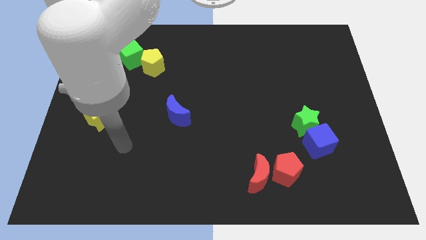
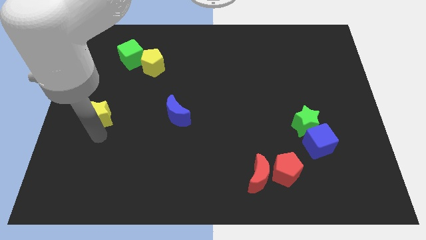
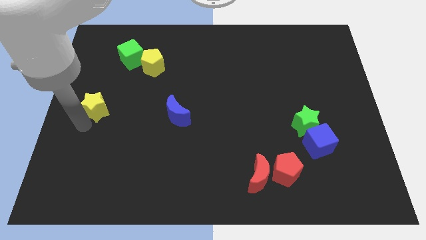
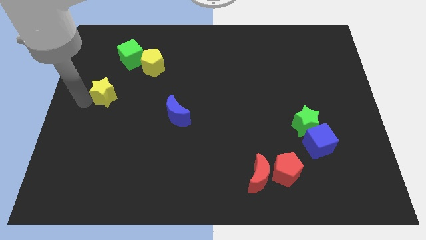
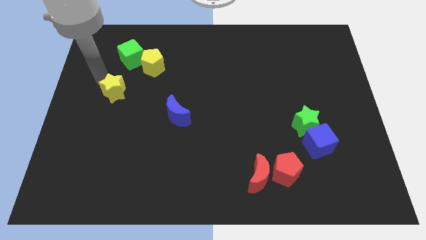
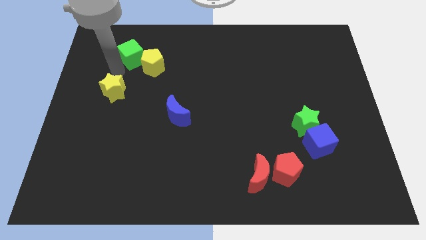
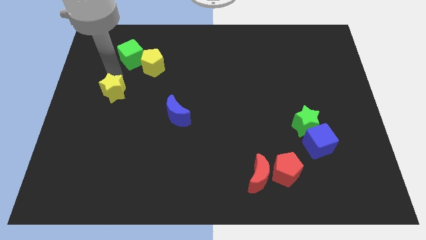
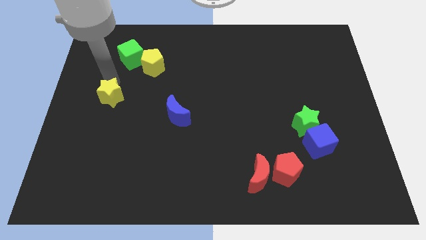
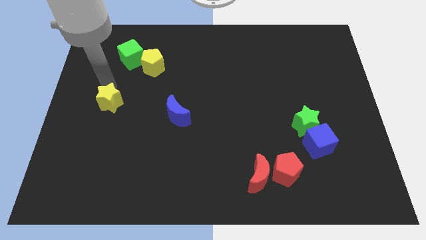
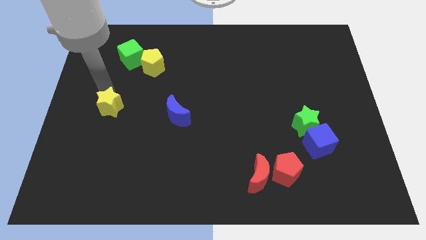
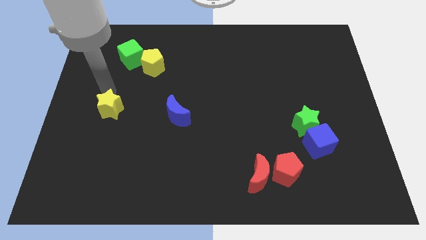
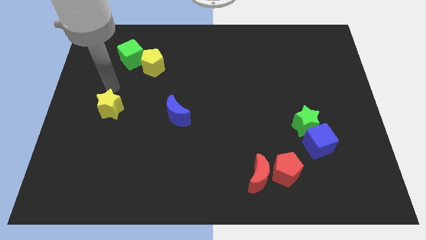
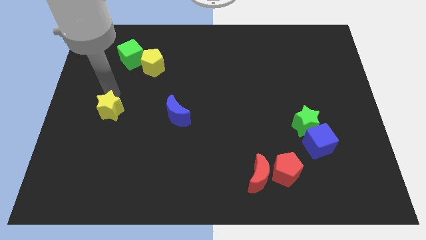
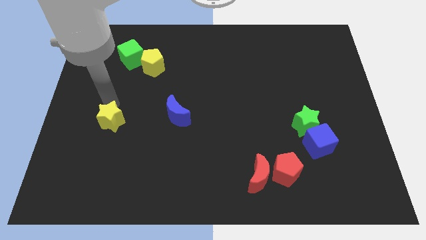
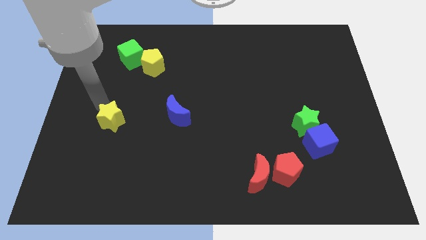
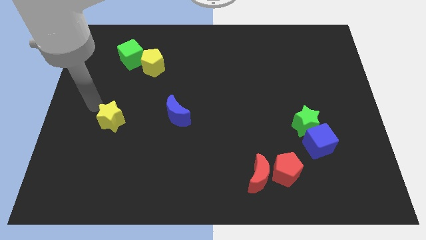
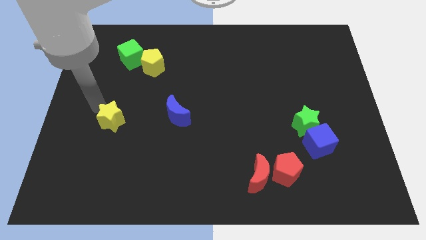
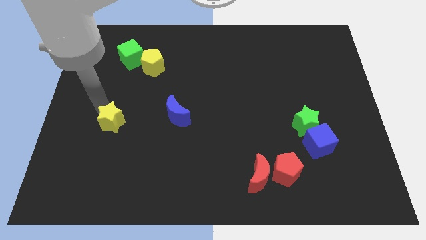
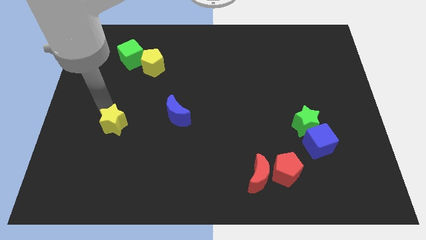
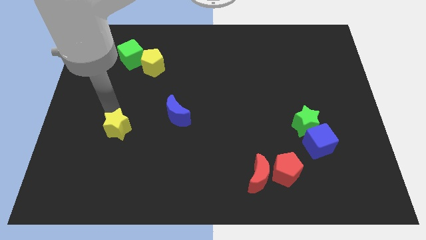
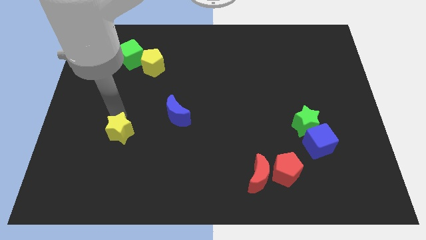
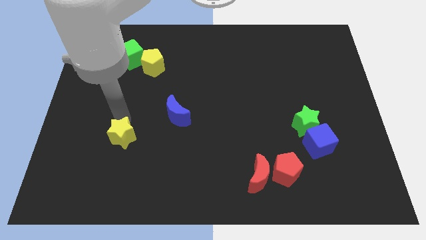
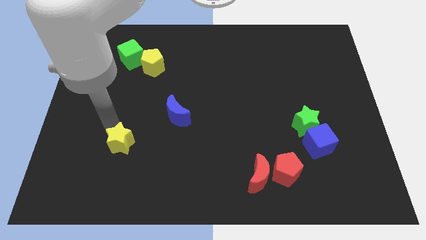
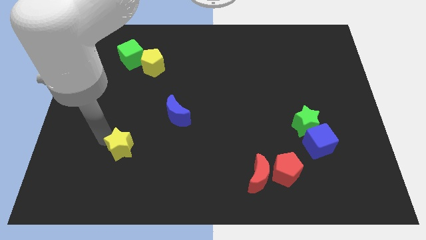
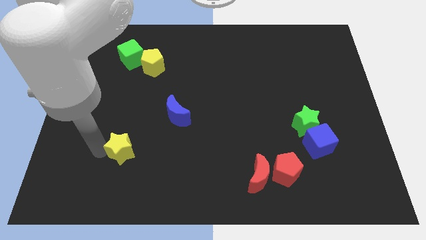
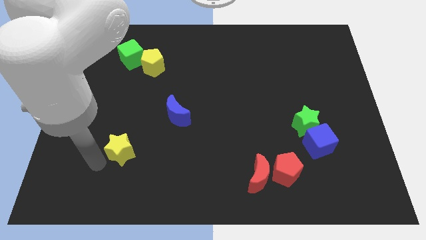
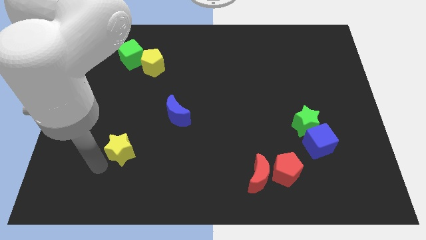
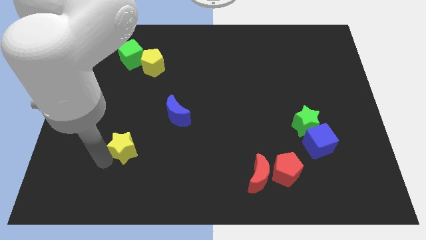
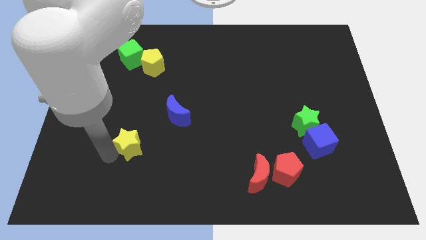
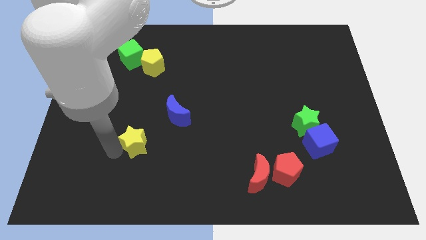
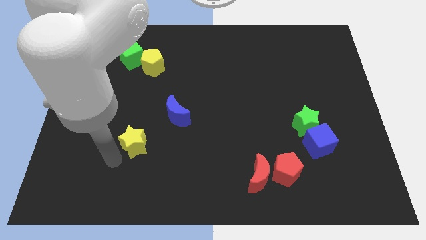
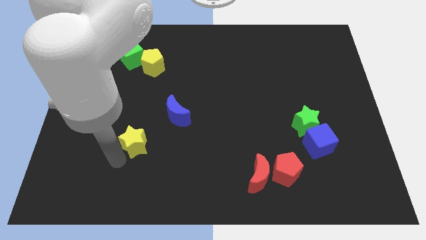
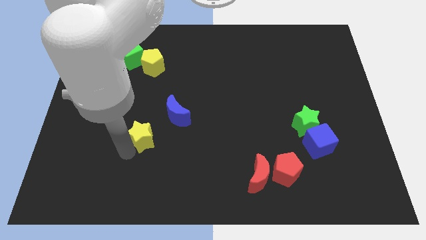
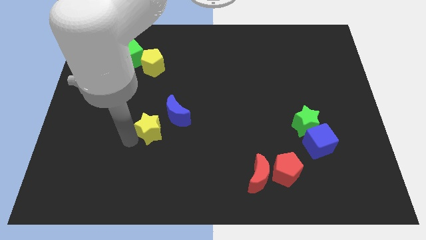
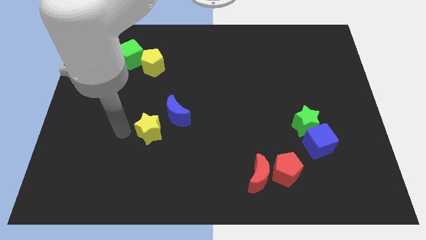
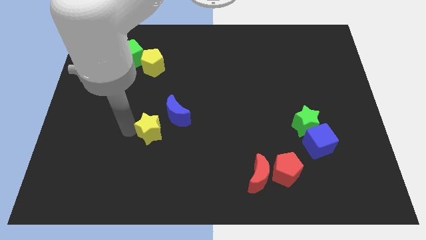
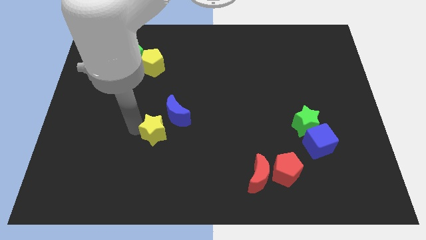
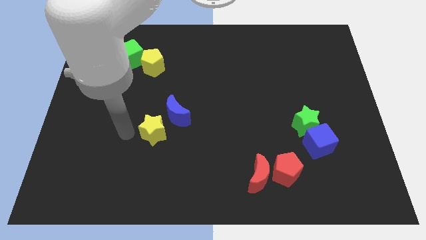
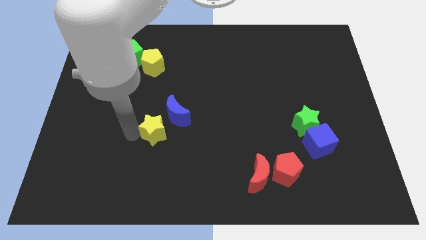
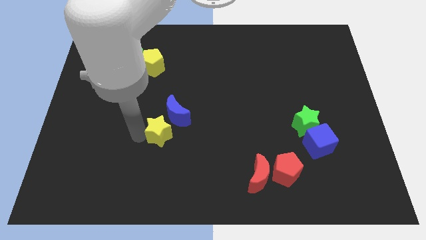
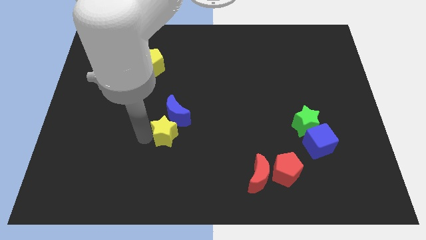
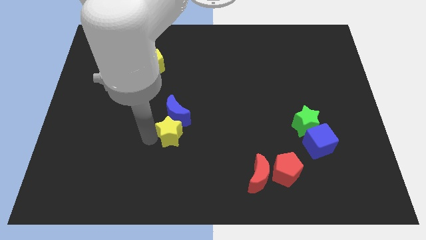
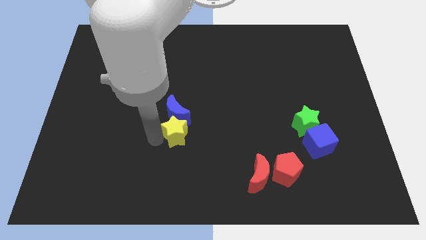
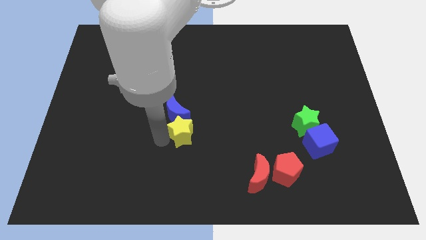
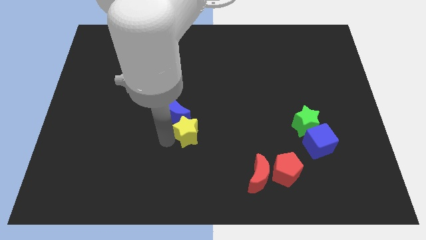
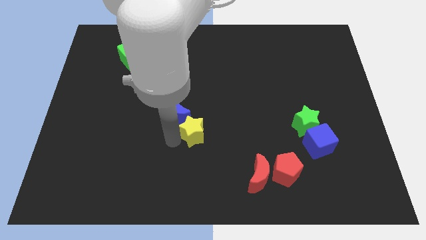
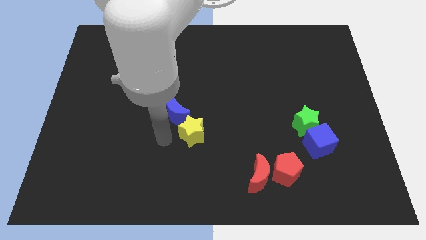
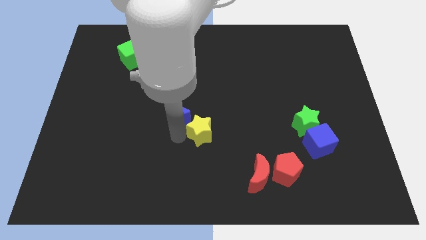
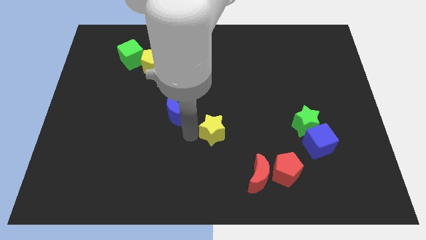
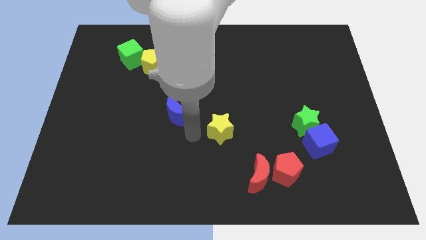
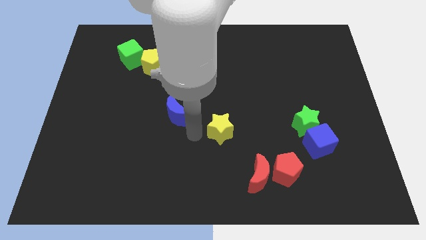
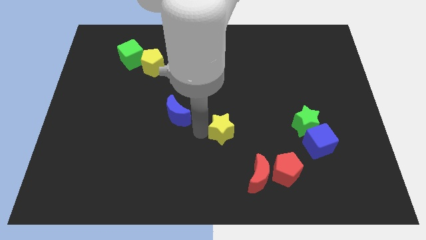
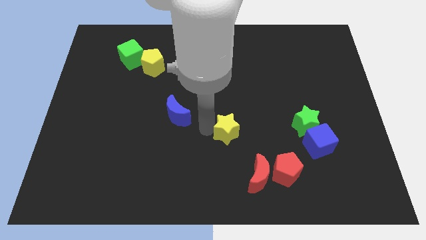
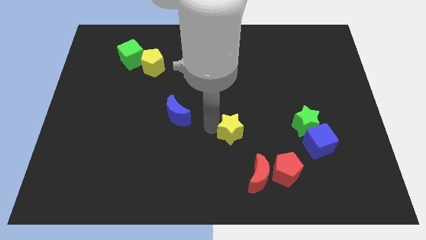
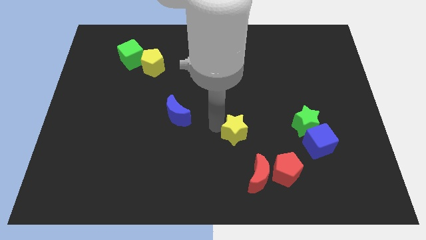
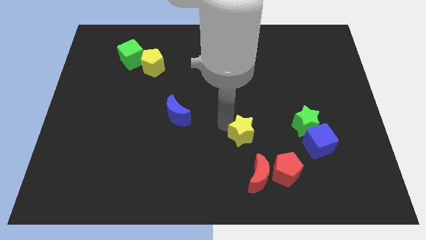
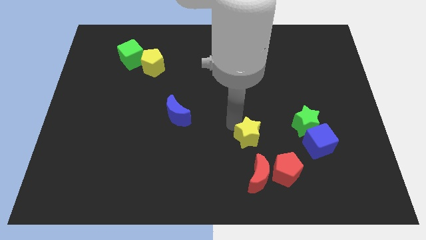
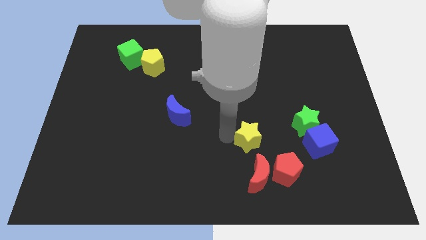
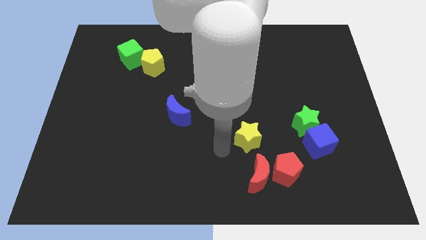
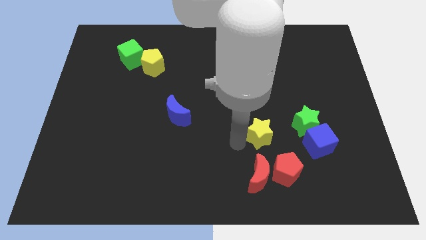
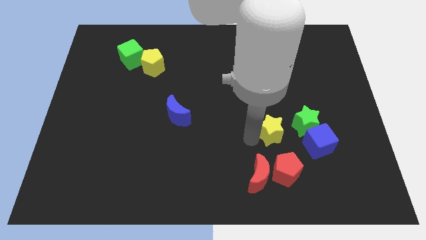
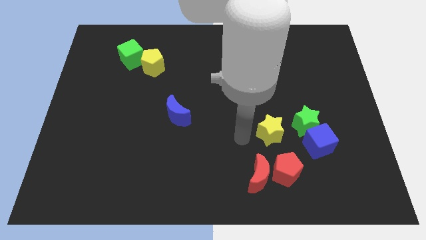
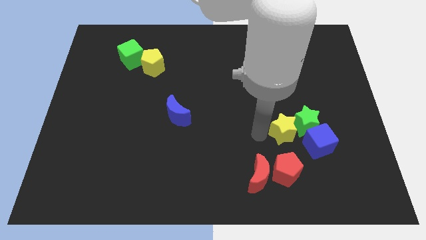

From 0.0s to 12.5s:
put the yellow star next to the green star

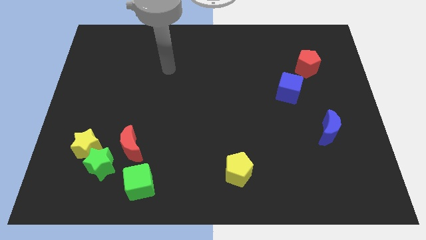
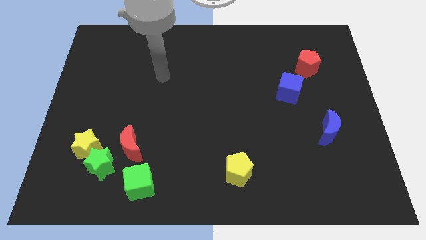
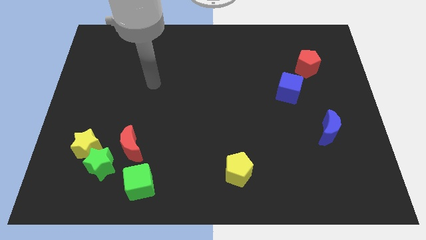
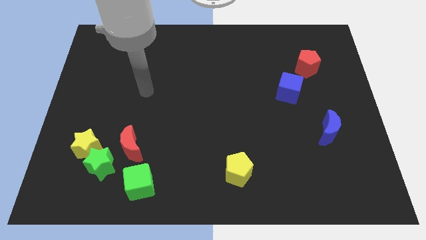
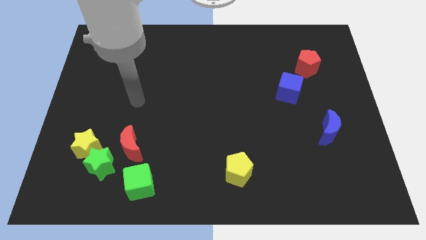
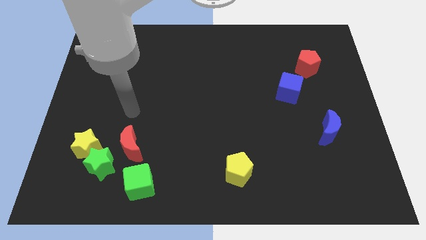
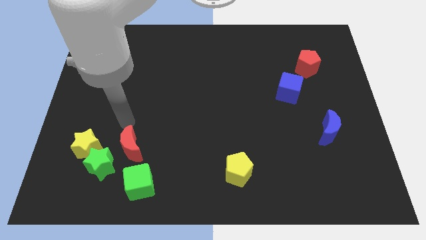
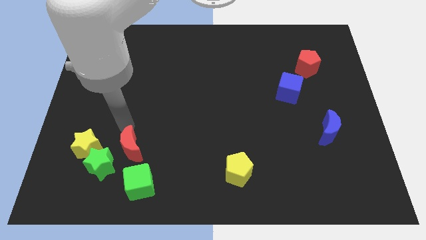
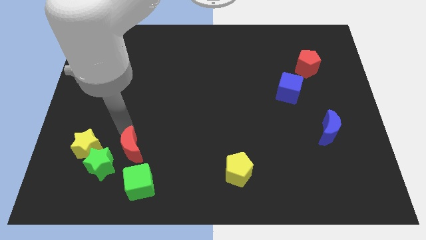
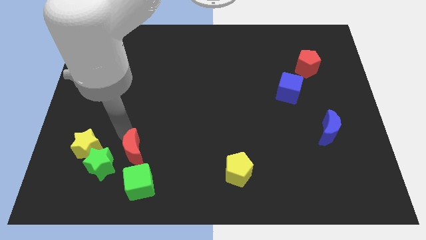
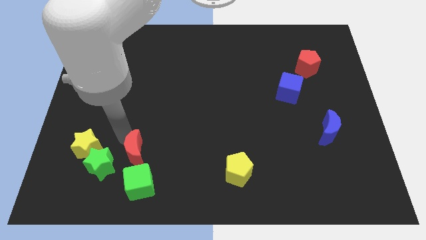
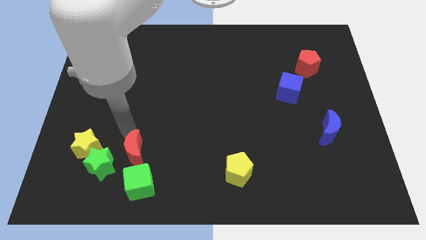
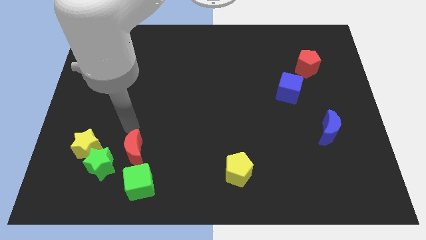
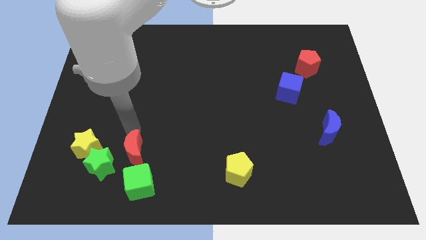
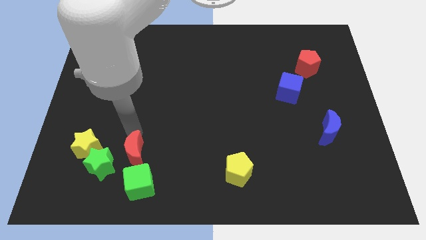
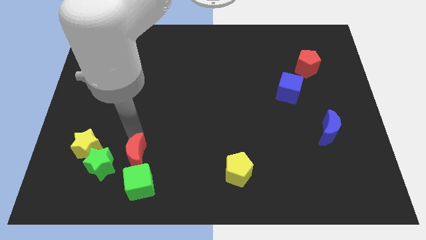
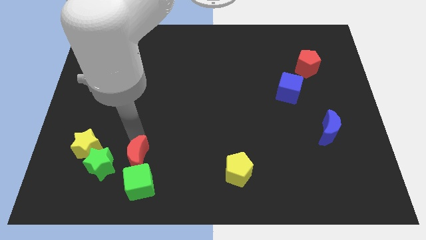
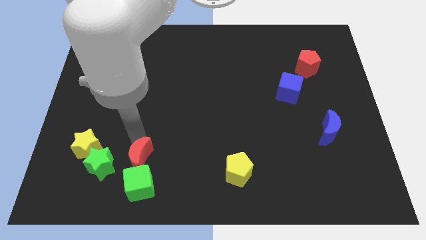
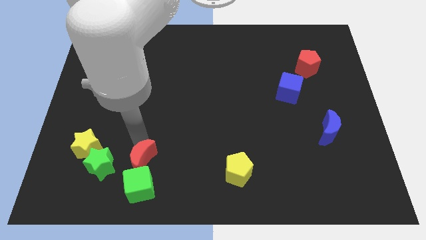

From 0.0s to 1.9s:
push the red moon next to the green cube
